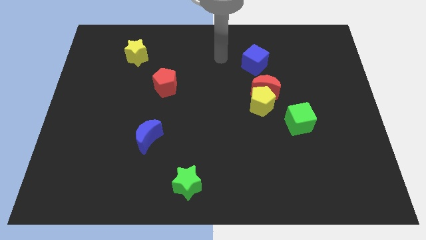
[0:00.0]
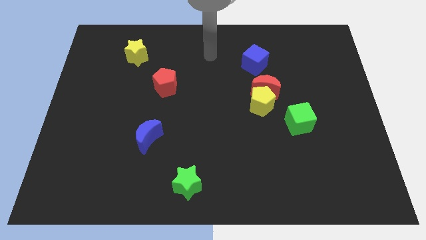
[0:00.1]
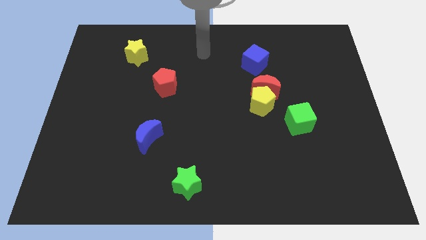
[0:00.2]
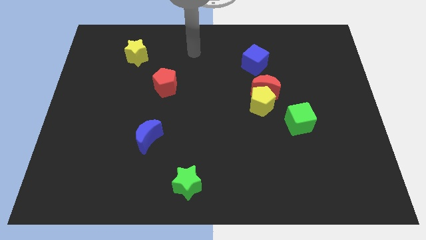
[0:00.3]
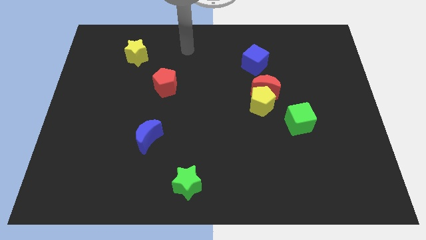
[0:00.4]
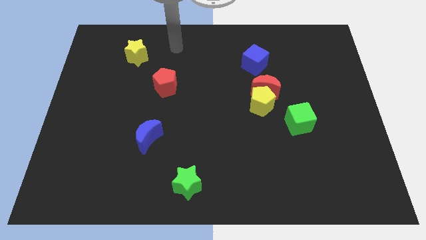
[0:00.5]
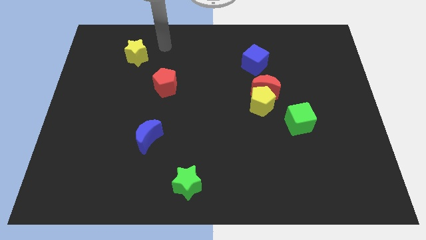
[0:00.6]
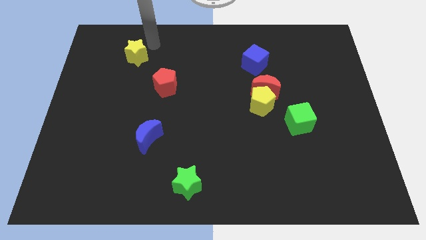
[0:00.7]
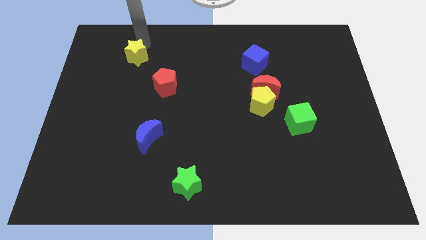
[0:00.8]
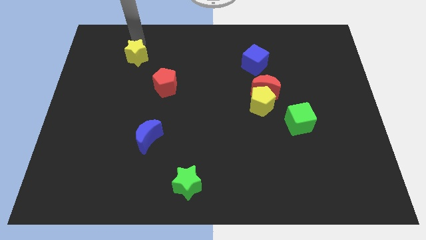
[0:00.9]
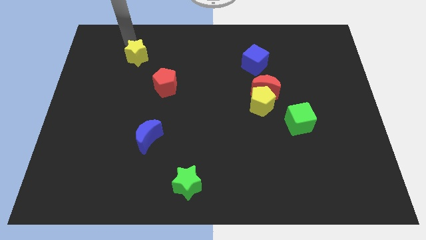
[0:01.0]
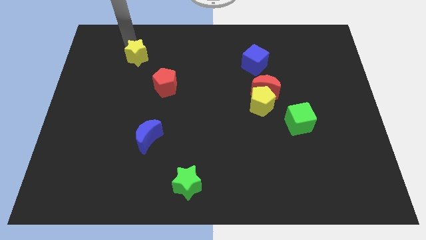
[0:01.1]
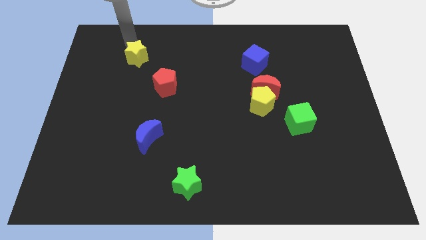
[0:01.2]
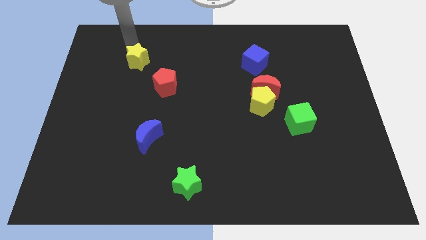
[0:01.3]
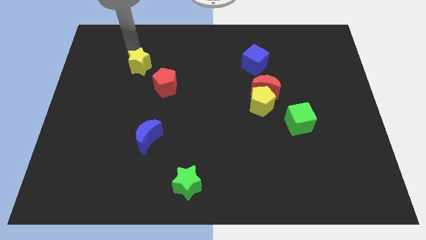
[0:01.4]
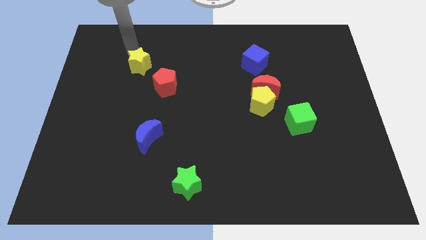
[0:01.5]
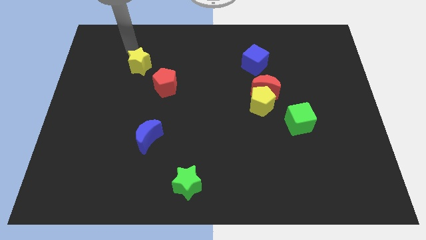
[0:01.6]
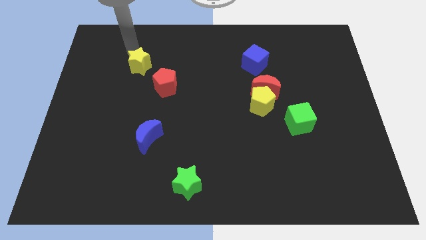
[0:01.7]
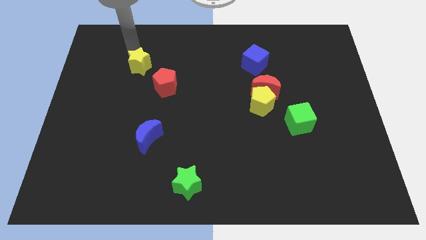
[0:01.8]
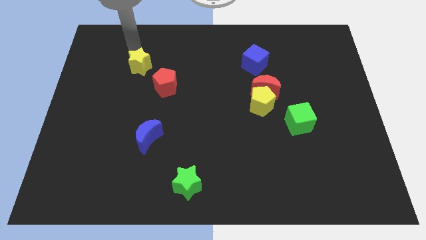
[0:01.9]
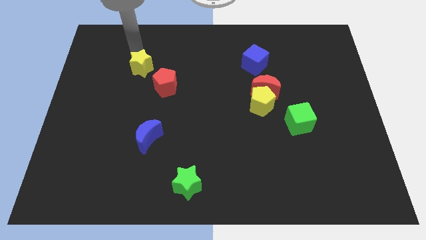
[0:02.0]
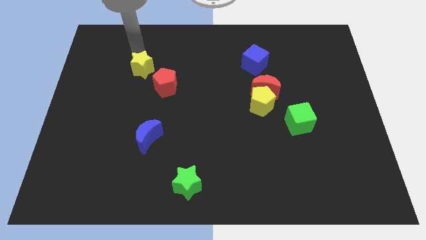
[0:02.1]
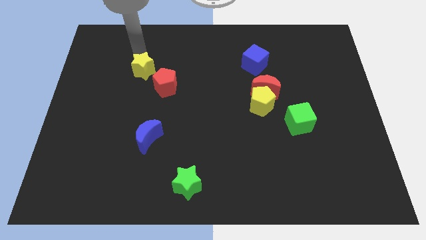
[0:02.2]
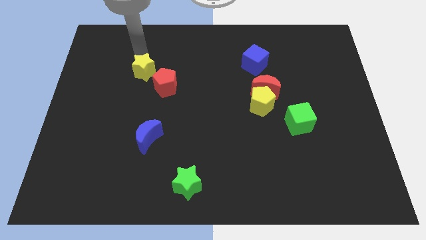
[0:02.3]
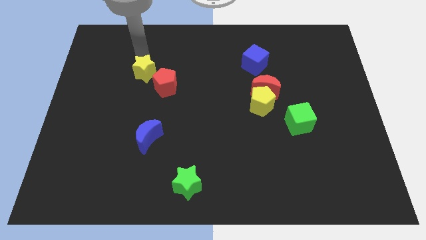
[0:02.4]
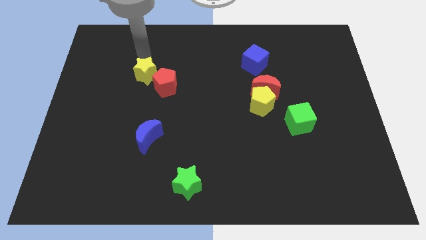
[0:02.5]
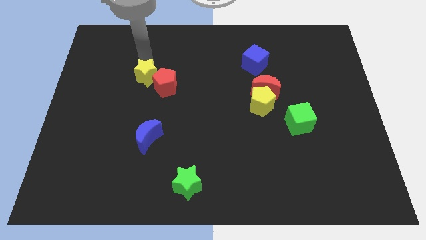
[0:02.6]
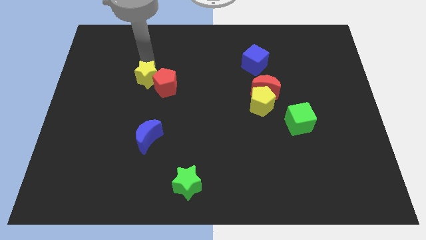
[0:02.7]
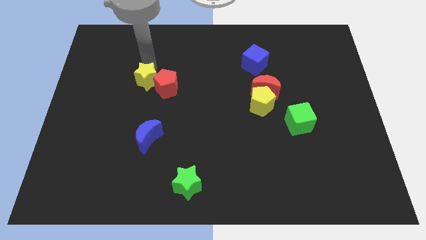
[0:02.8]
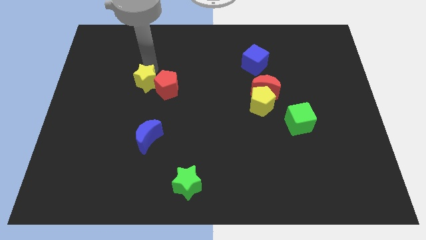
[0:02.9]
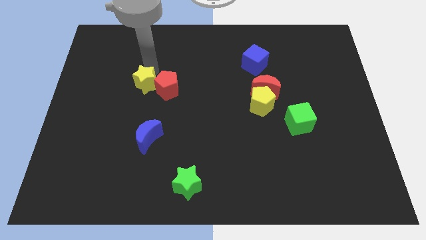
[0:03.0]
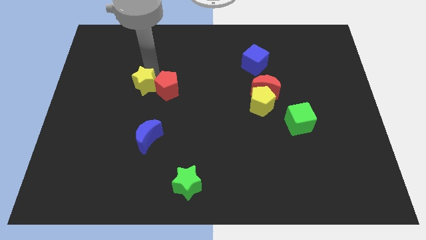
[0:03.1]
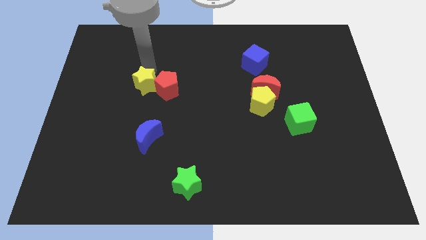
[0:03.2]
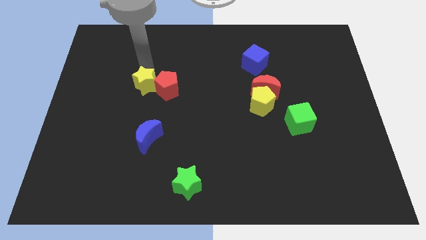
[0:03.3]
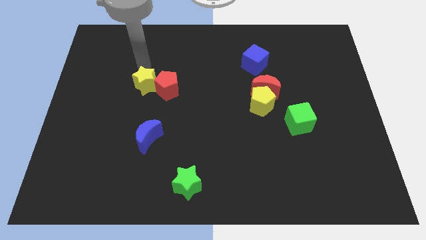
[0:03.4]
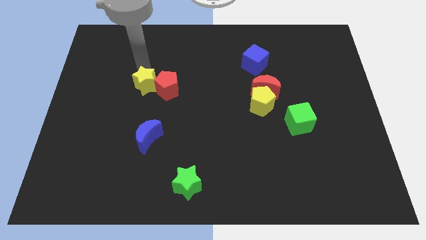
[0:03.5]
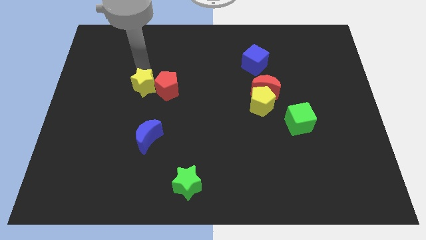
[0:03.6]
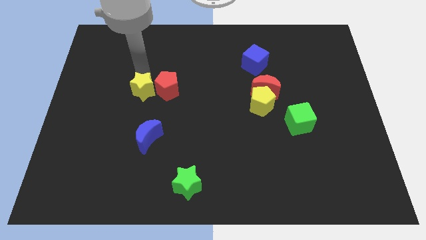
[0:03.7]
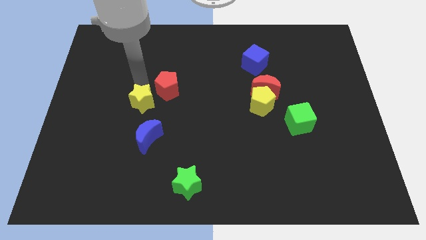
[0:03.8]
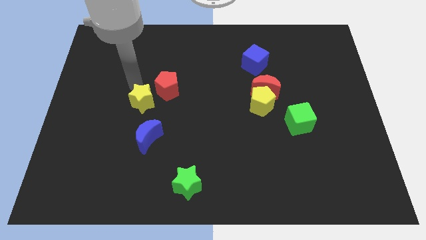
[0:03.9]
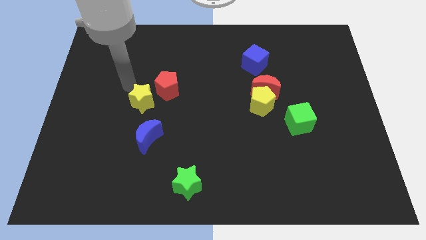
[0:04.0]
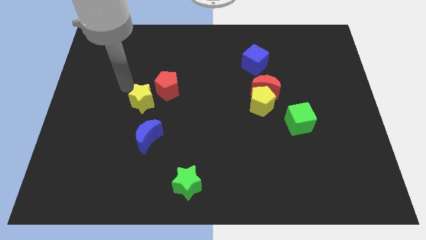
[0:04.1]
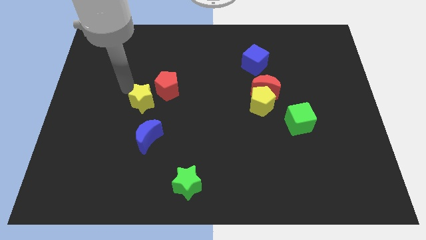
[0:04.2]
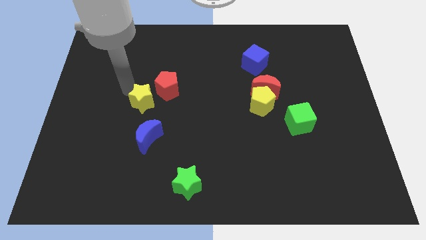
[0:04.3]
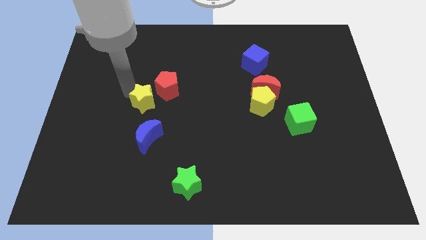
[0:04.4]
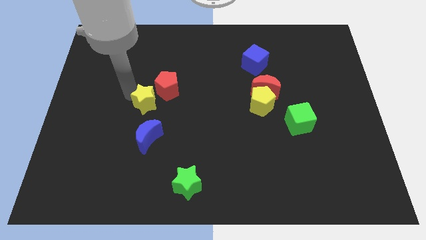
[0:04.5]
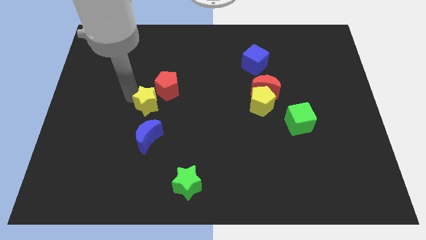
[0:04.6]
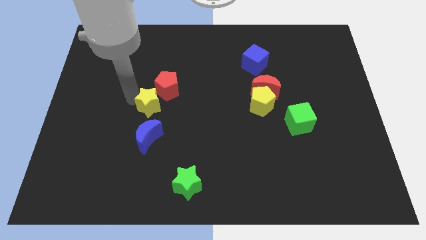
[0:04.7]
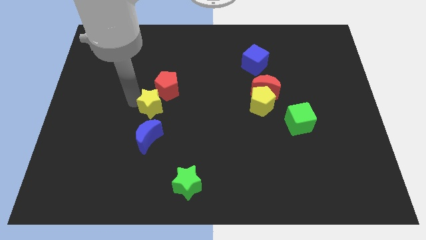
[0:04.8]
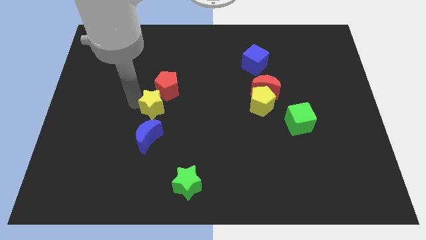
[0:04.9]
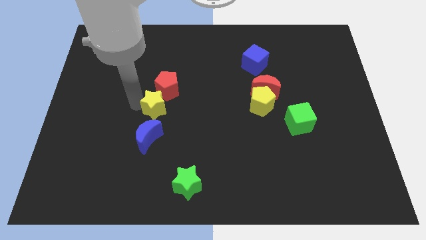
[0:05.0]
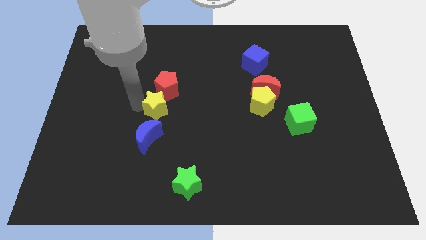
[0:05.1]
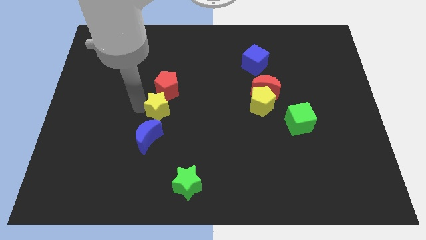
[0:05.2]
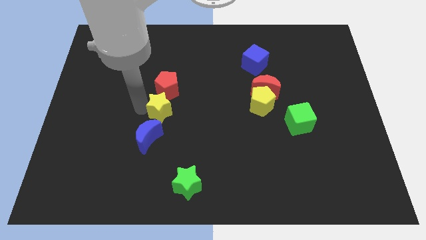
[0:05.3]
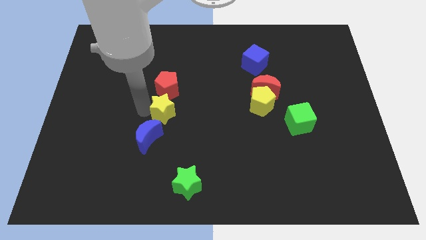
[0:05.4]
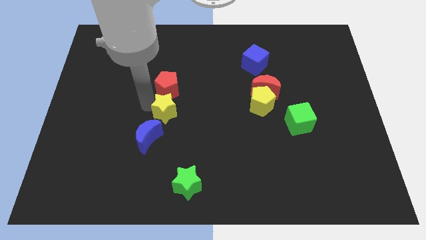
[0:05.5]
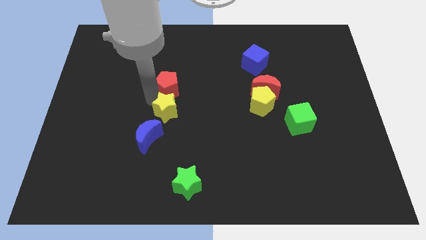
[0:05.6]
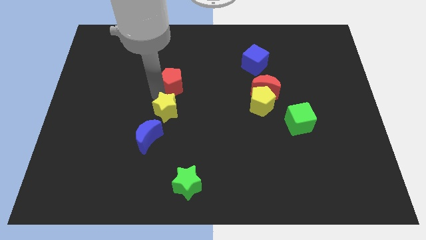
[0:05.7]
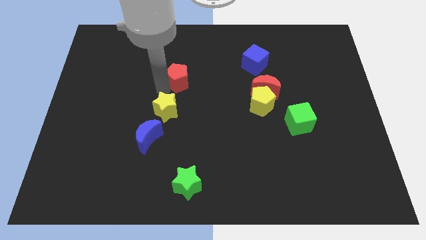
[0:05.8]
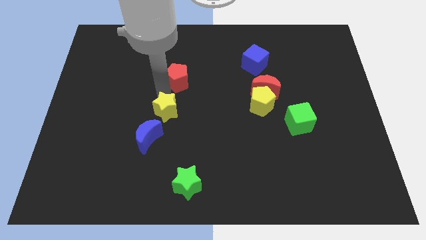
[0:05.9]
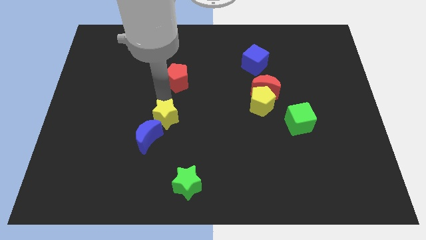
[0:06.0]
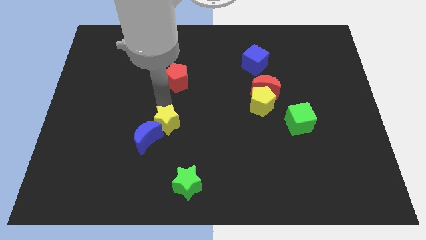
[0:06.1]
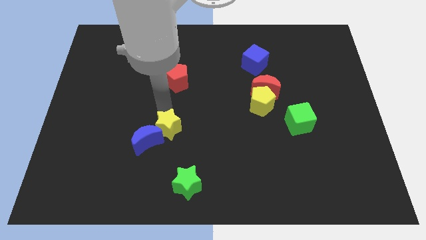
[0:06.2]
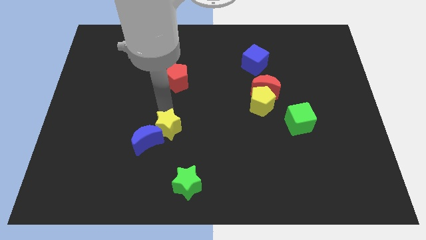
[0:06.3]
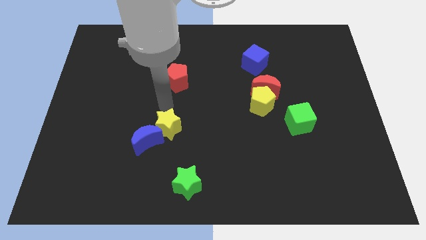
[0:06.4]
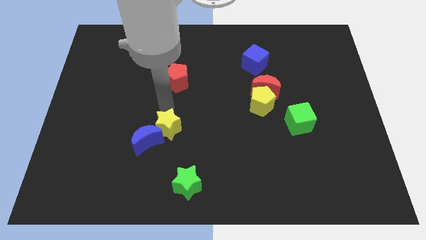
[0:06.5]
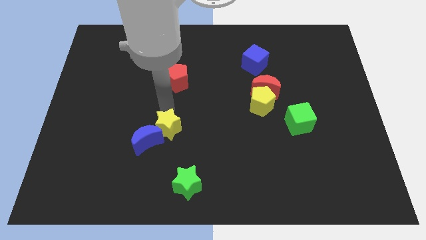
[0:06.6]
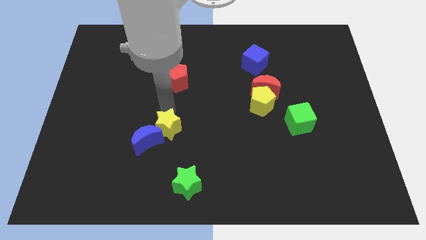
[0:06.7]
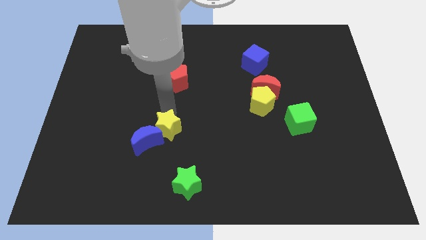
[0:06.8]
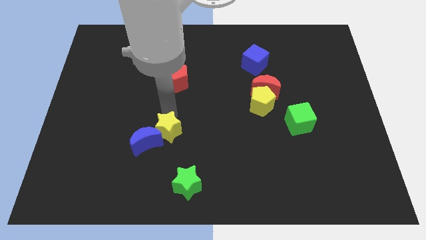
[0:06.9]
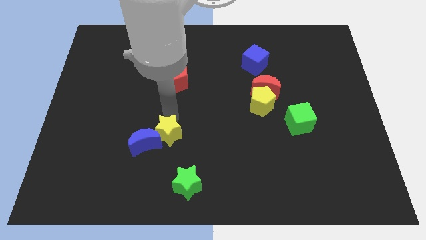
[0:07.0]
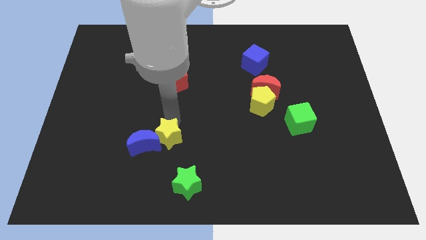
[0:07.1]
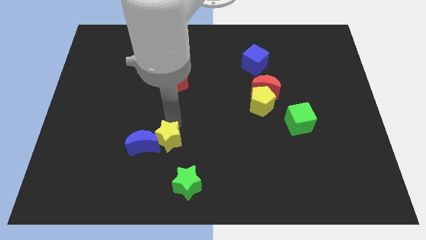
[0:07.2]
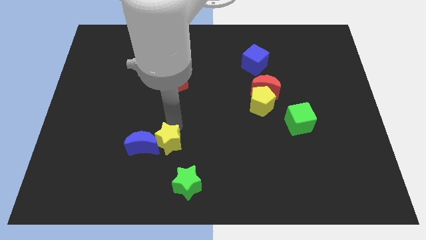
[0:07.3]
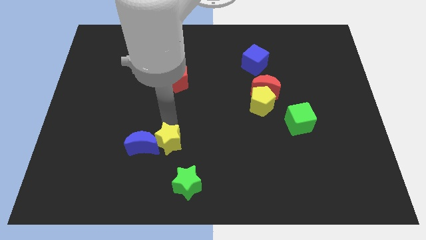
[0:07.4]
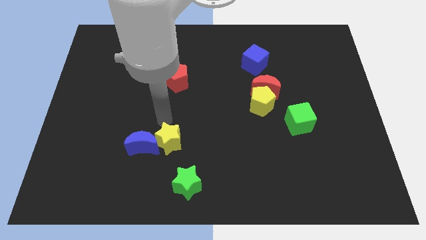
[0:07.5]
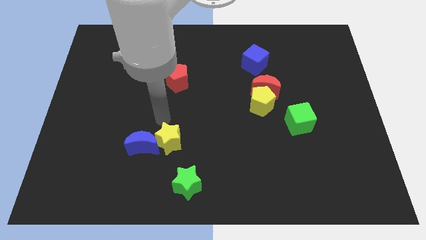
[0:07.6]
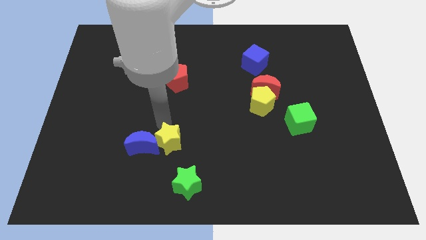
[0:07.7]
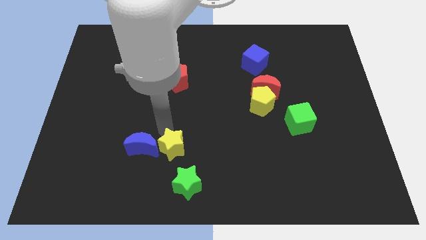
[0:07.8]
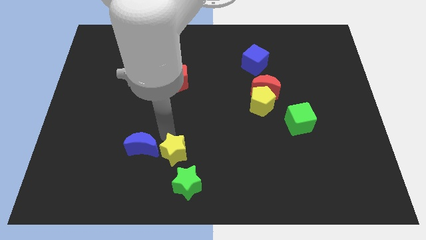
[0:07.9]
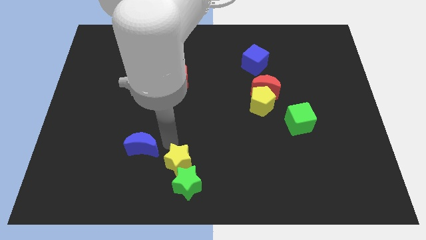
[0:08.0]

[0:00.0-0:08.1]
push the yellow star close to the green star
